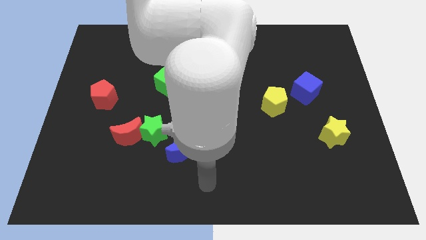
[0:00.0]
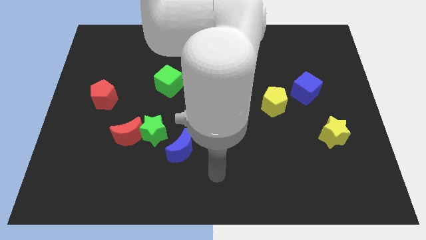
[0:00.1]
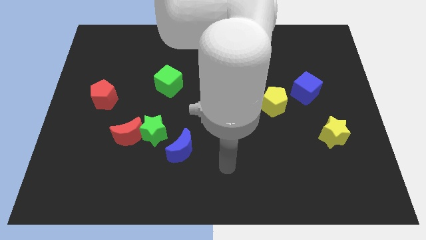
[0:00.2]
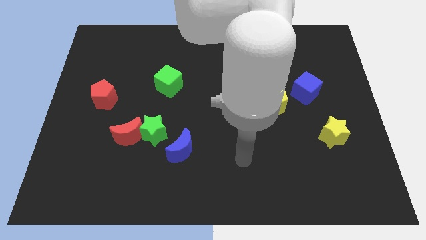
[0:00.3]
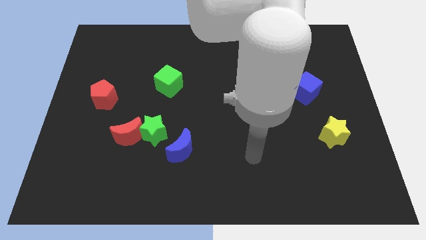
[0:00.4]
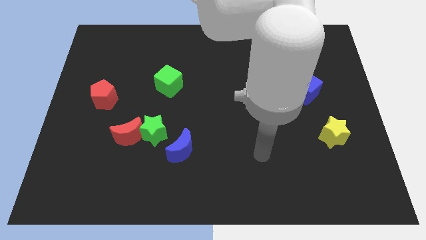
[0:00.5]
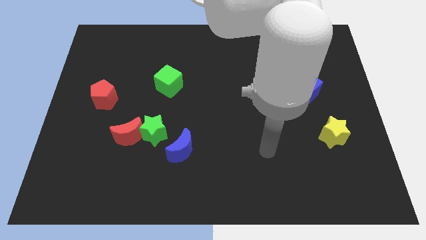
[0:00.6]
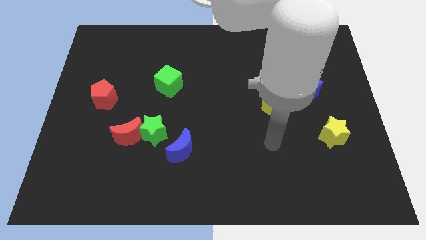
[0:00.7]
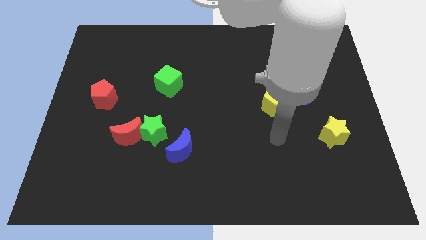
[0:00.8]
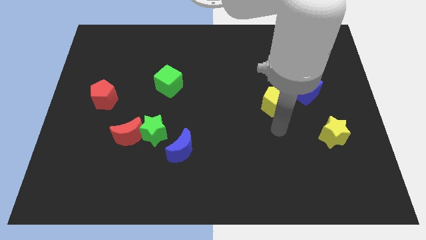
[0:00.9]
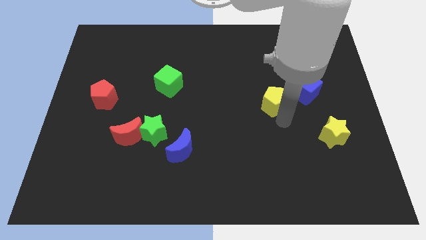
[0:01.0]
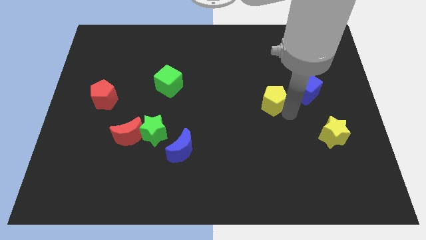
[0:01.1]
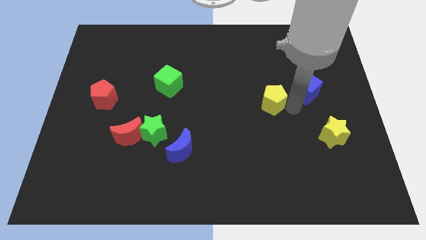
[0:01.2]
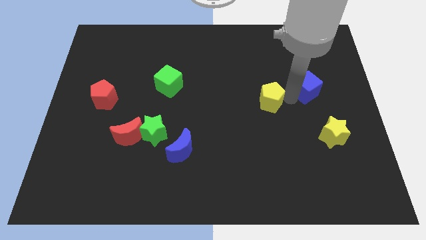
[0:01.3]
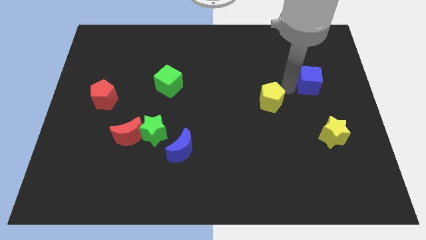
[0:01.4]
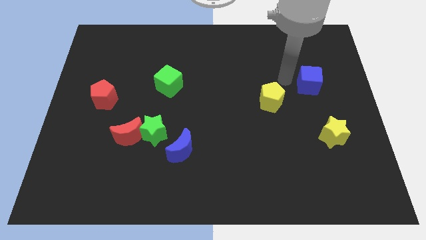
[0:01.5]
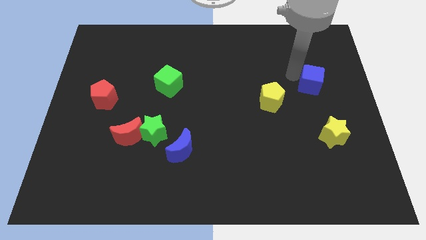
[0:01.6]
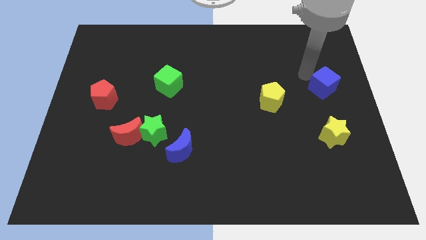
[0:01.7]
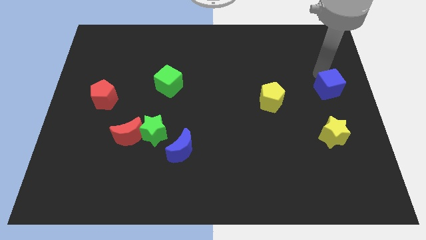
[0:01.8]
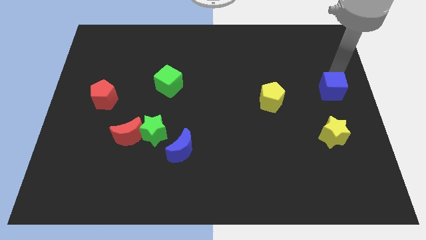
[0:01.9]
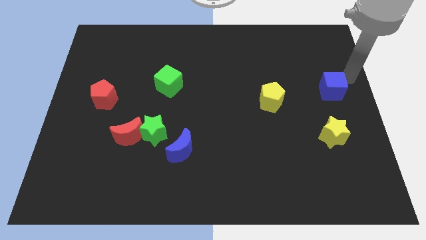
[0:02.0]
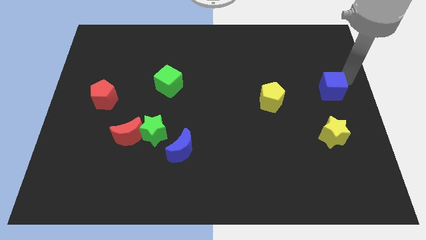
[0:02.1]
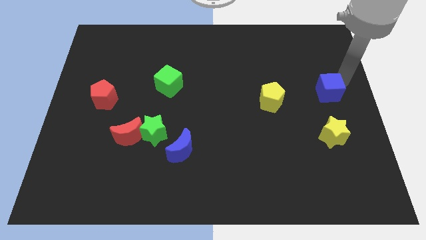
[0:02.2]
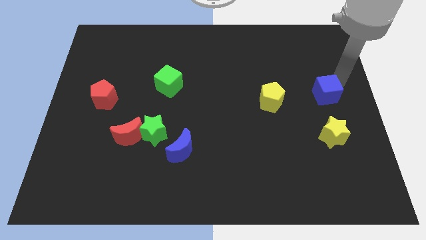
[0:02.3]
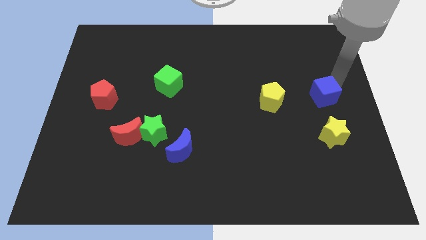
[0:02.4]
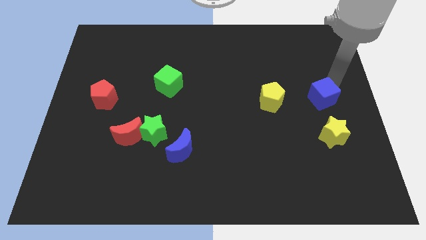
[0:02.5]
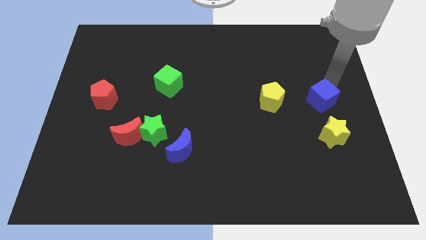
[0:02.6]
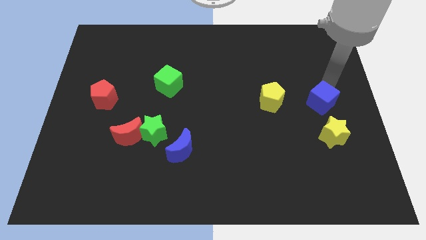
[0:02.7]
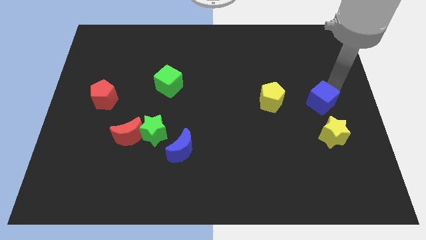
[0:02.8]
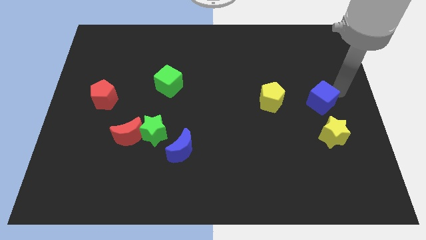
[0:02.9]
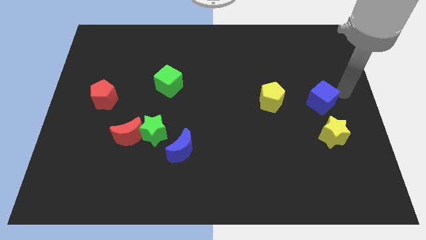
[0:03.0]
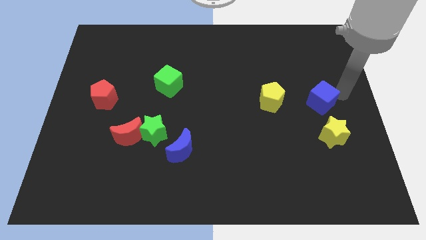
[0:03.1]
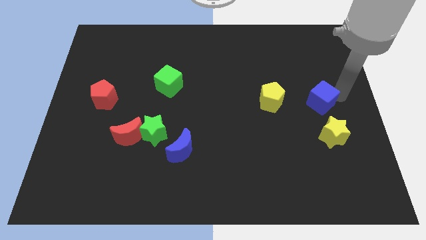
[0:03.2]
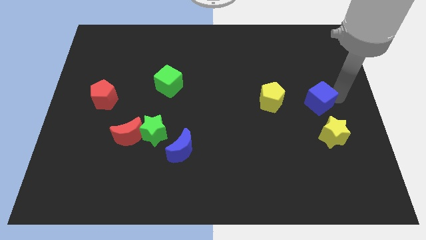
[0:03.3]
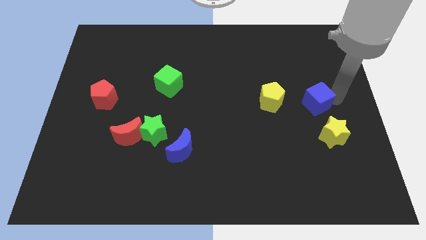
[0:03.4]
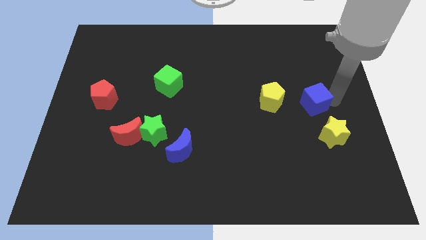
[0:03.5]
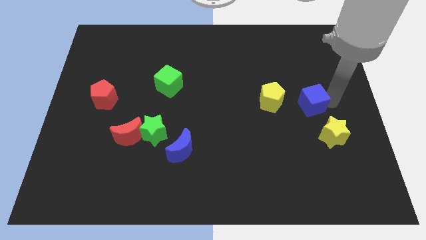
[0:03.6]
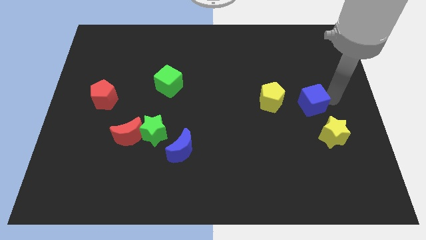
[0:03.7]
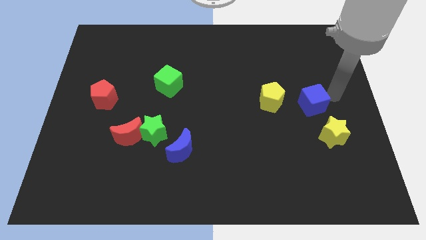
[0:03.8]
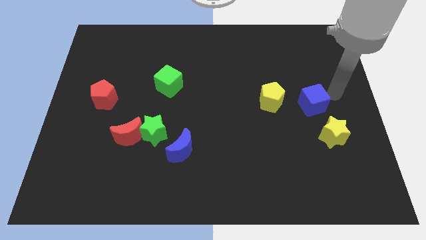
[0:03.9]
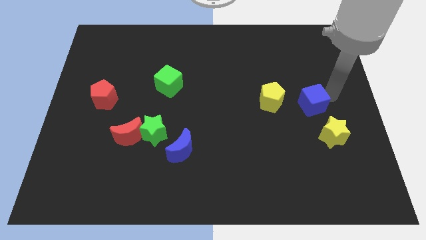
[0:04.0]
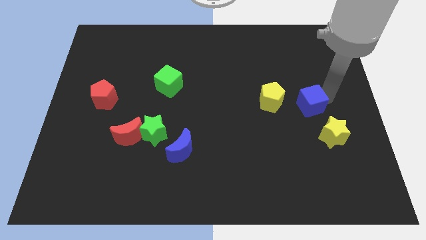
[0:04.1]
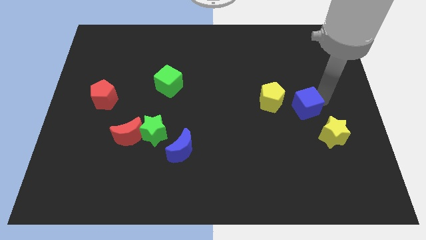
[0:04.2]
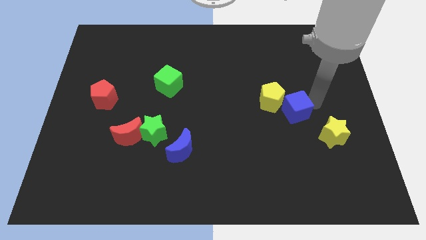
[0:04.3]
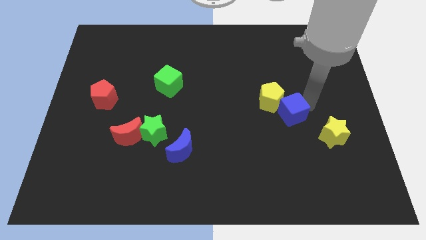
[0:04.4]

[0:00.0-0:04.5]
slide the blue cube a bit downwards and then to the left

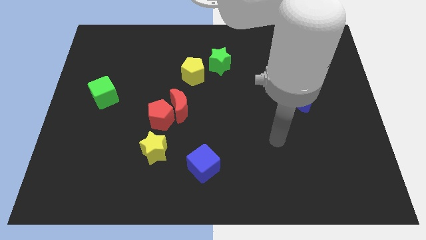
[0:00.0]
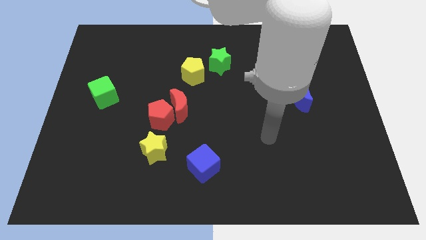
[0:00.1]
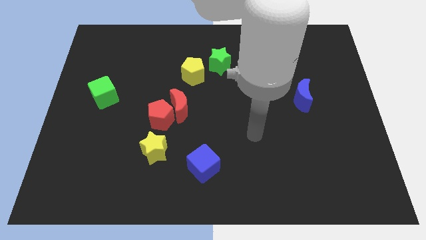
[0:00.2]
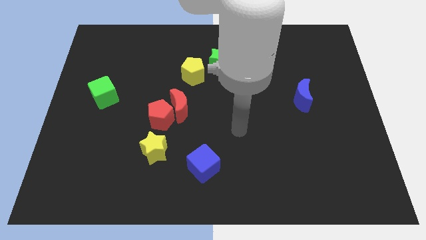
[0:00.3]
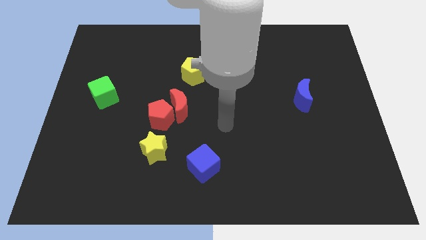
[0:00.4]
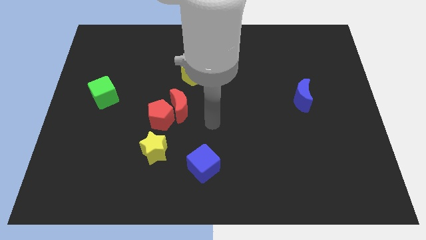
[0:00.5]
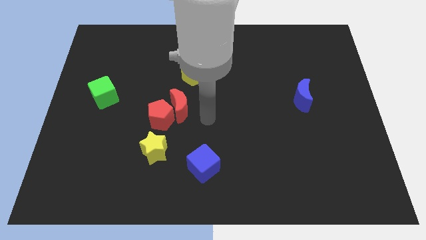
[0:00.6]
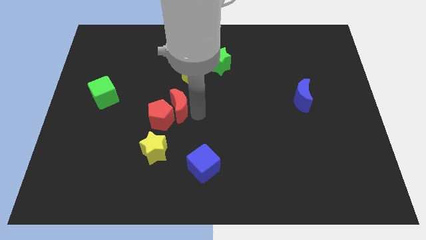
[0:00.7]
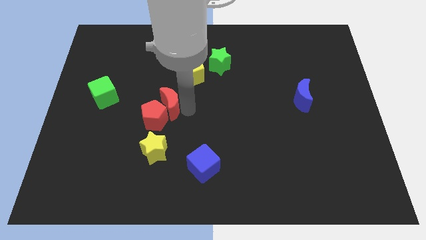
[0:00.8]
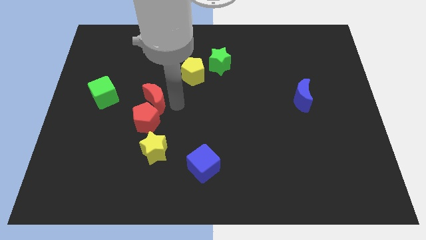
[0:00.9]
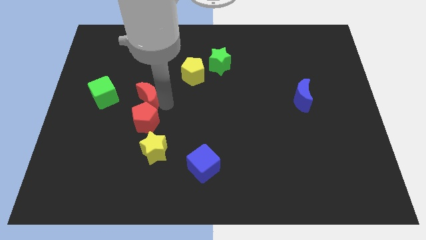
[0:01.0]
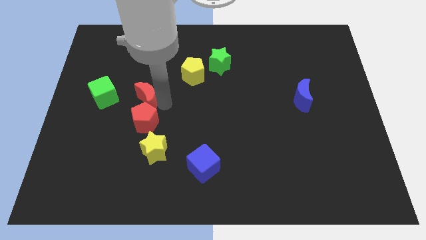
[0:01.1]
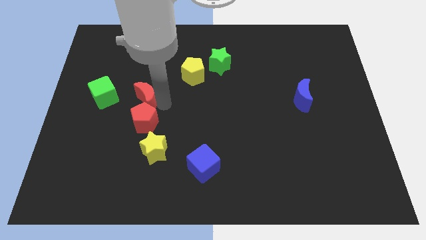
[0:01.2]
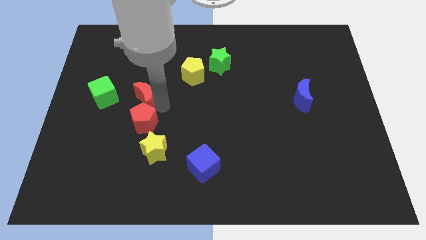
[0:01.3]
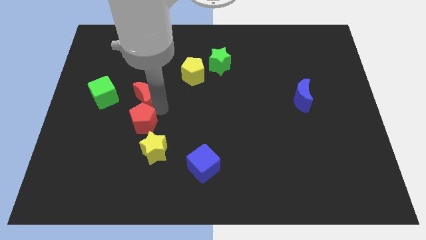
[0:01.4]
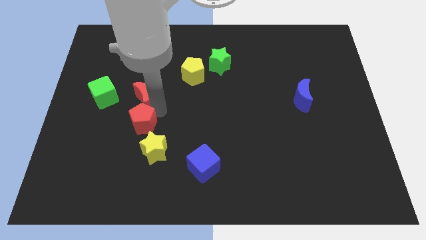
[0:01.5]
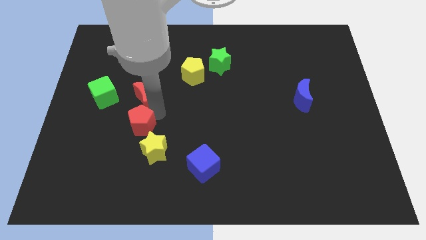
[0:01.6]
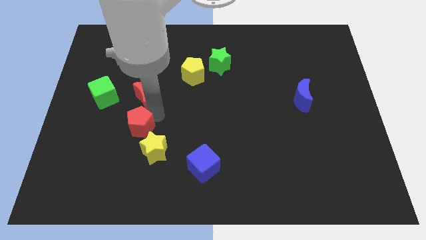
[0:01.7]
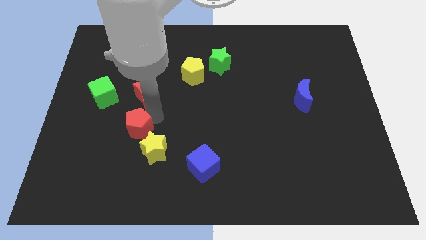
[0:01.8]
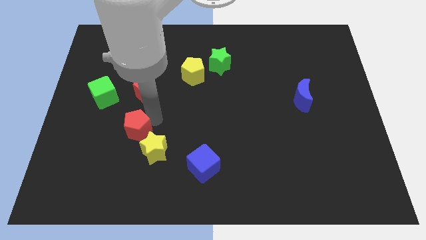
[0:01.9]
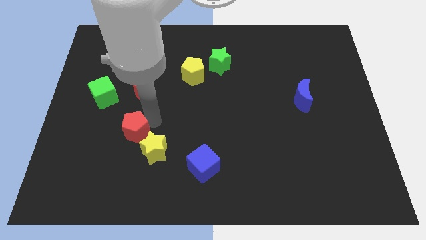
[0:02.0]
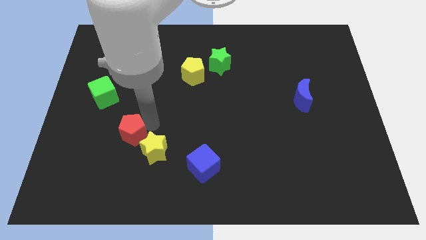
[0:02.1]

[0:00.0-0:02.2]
slide the red pentagon diagonally down and to the left a little bit

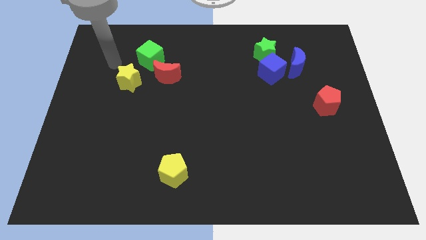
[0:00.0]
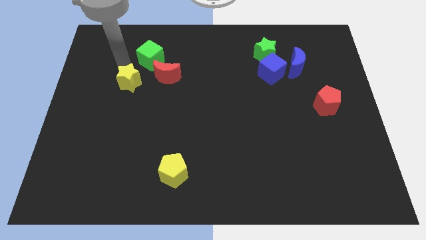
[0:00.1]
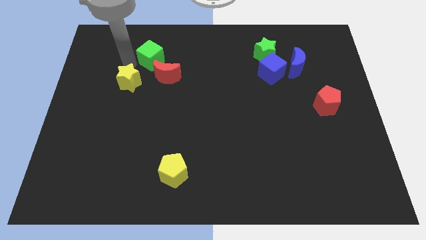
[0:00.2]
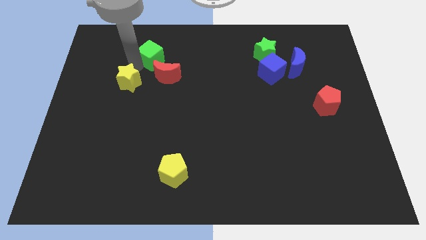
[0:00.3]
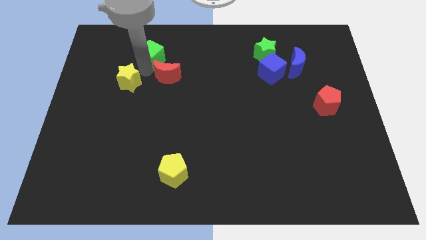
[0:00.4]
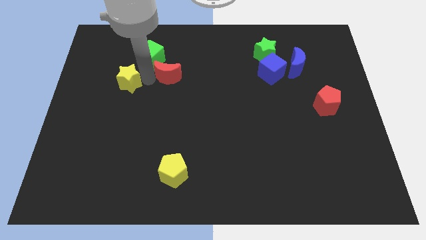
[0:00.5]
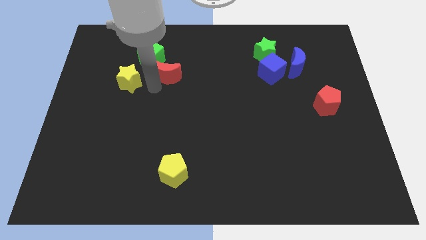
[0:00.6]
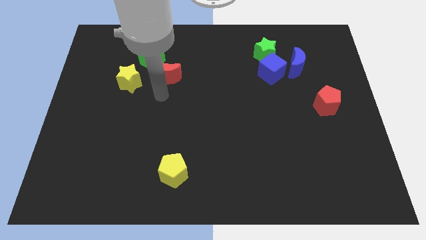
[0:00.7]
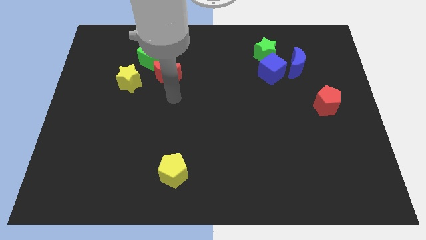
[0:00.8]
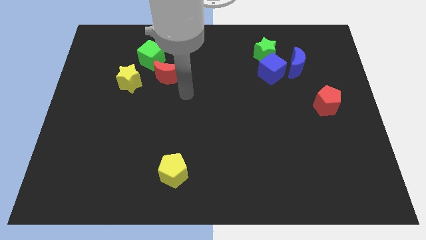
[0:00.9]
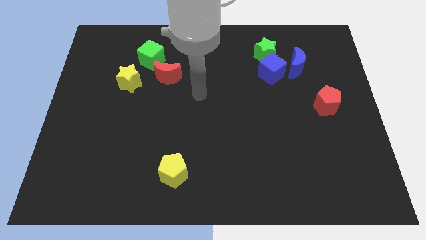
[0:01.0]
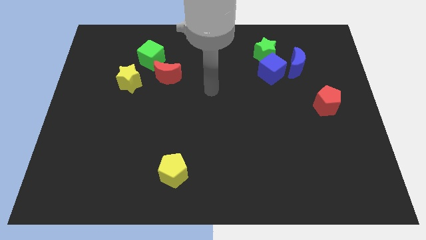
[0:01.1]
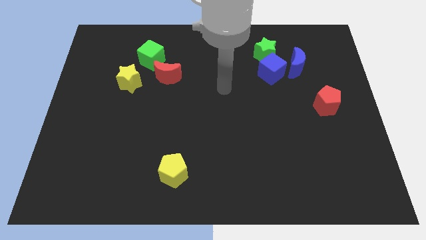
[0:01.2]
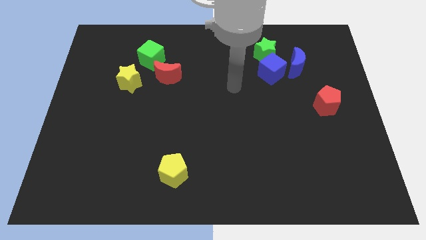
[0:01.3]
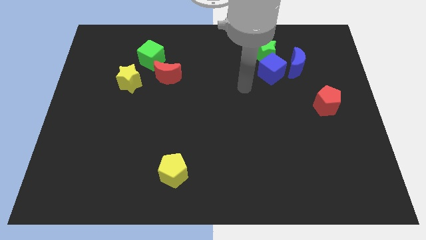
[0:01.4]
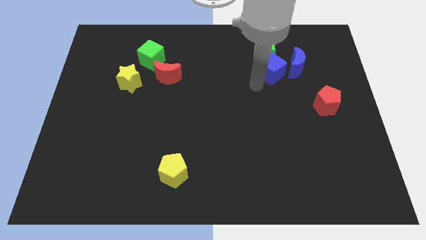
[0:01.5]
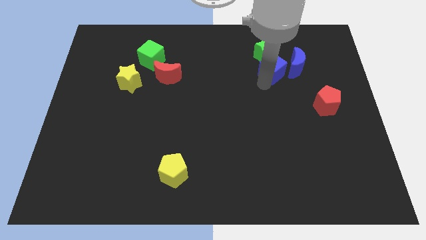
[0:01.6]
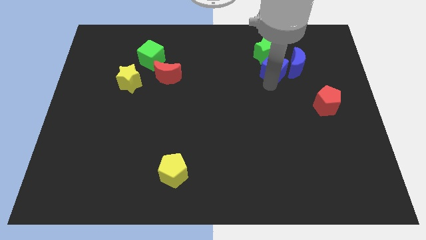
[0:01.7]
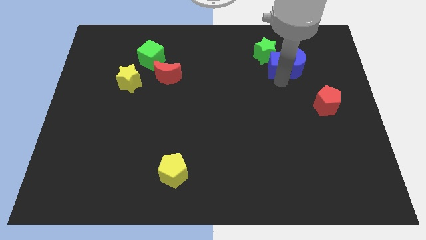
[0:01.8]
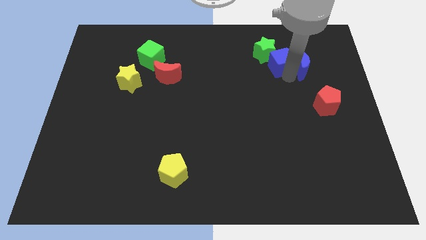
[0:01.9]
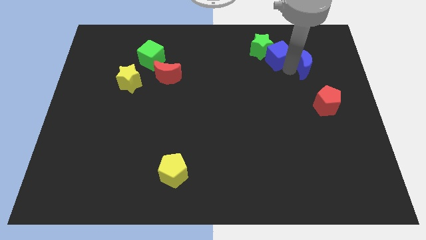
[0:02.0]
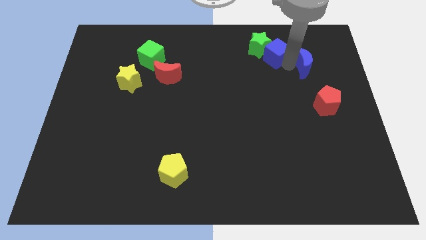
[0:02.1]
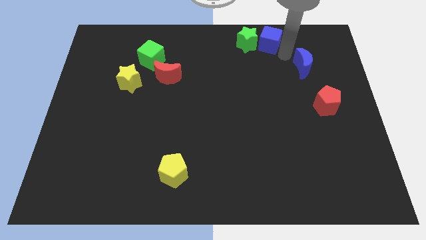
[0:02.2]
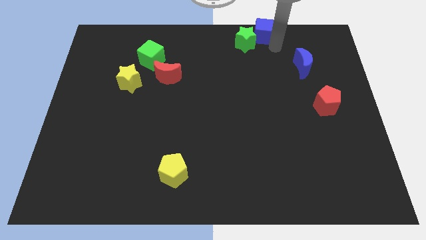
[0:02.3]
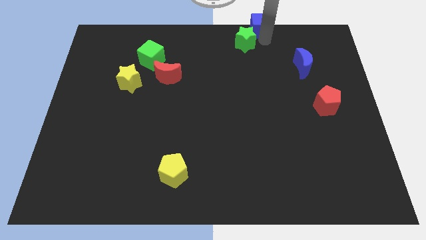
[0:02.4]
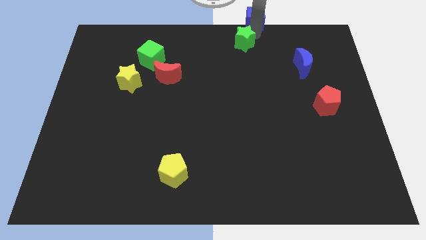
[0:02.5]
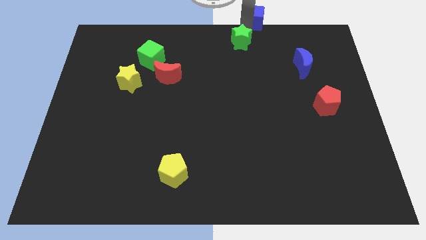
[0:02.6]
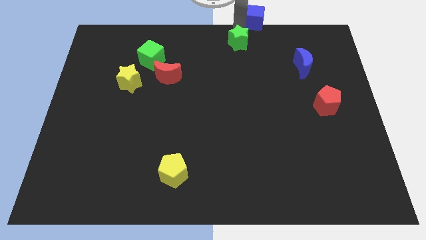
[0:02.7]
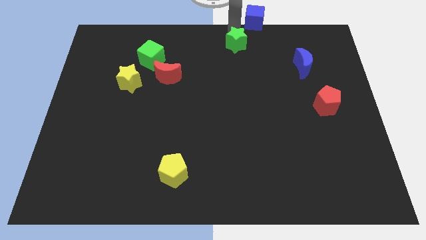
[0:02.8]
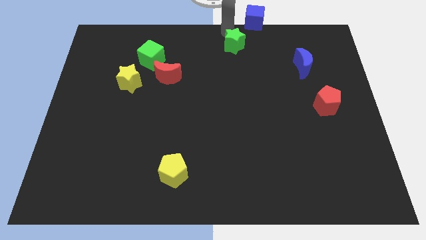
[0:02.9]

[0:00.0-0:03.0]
move the green star a bit left
